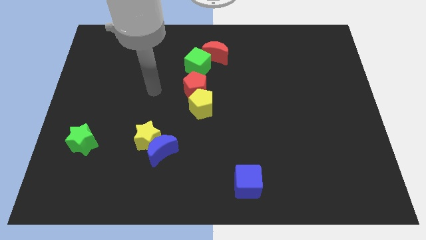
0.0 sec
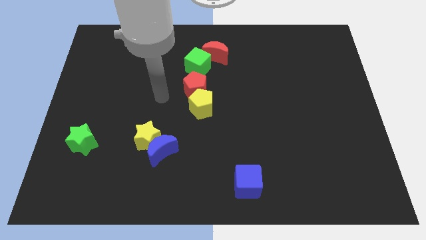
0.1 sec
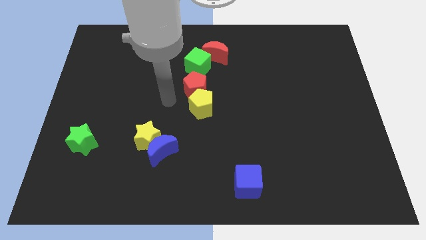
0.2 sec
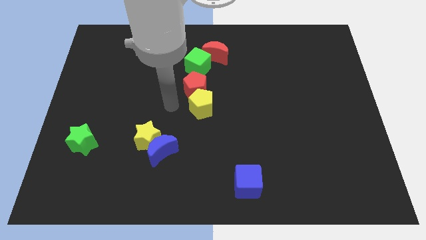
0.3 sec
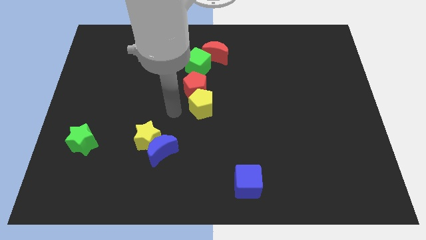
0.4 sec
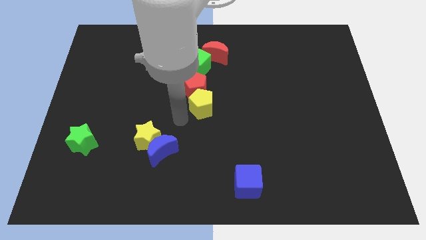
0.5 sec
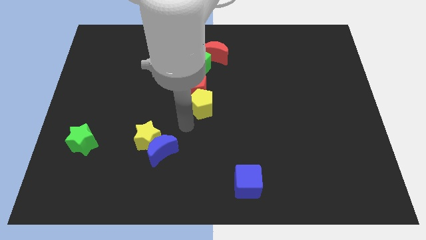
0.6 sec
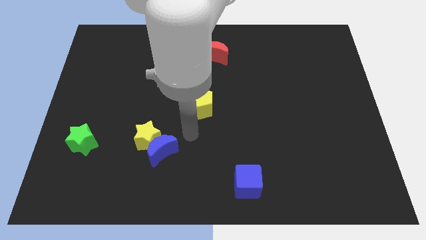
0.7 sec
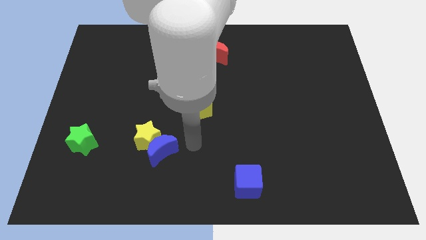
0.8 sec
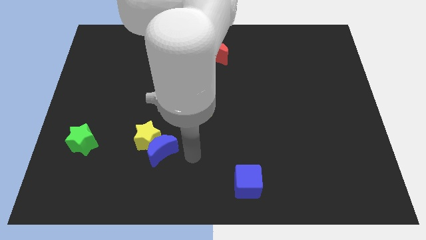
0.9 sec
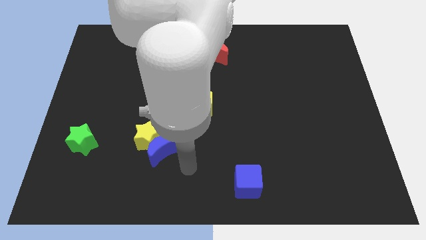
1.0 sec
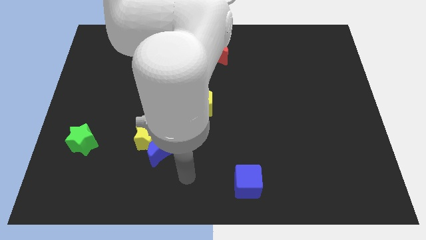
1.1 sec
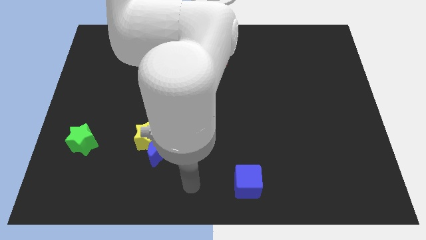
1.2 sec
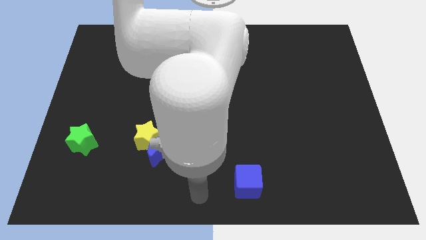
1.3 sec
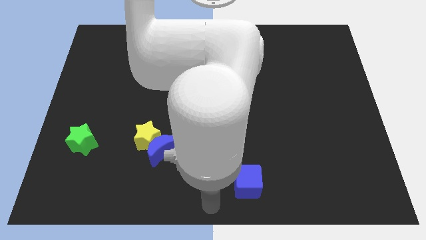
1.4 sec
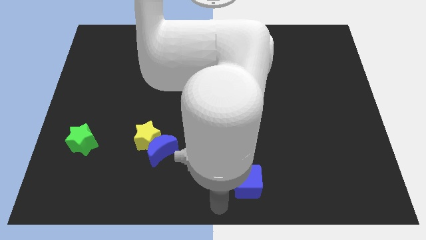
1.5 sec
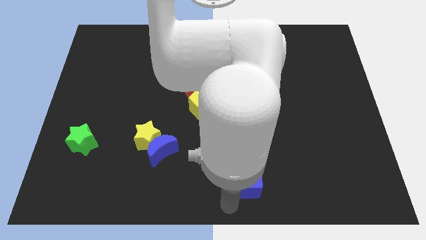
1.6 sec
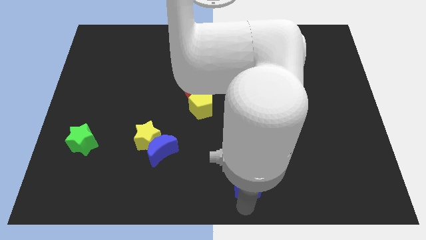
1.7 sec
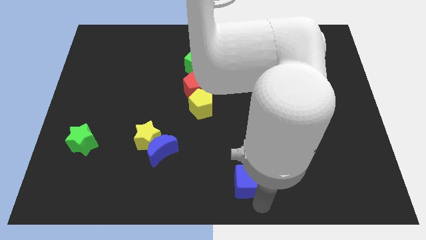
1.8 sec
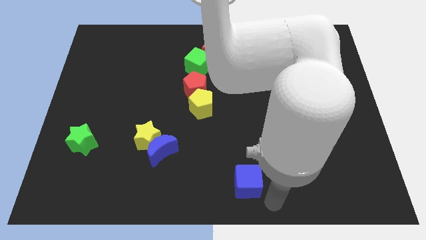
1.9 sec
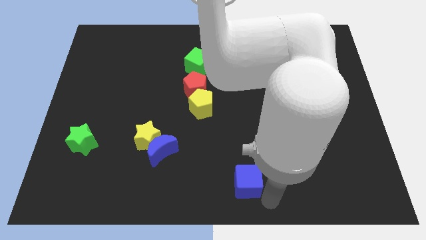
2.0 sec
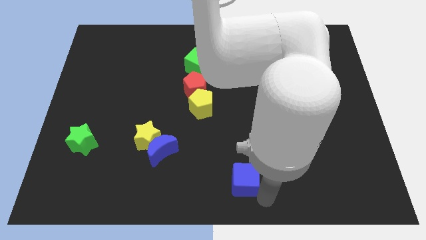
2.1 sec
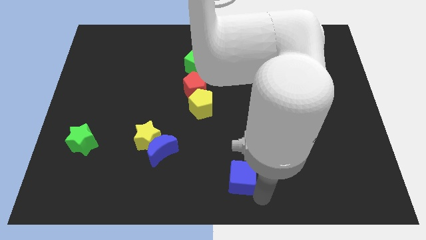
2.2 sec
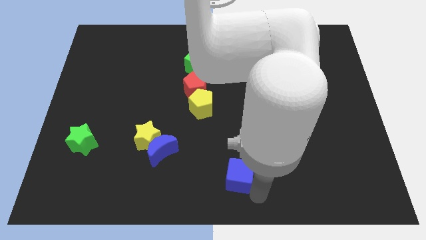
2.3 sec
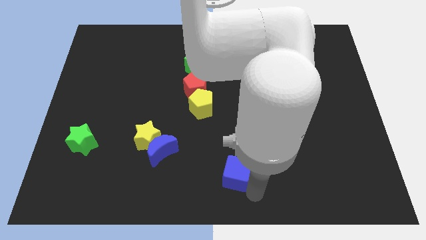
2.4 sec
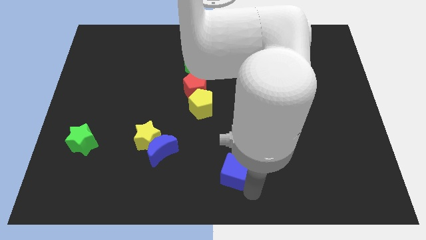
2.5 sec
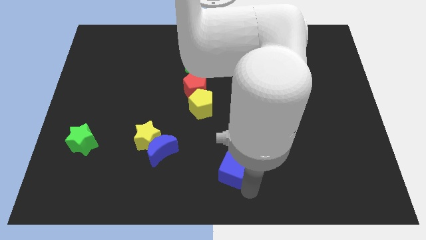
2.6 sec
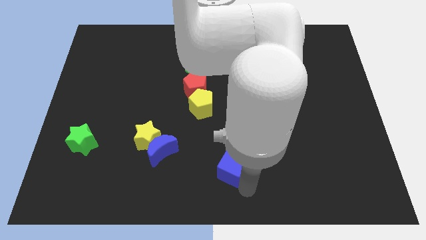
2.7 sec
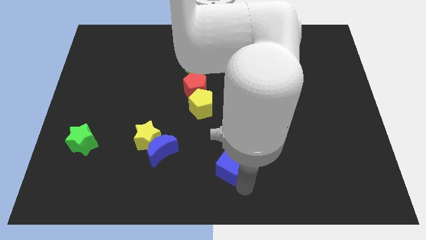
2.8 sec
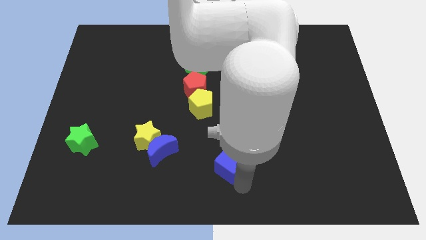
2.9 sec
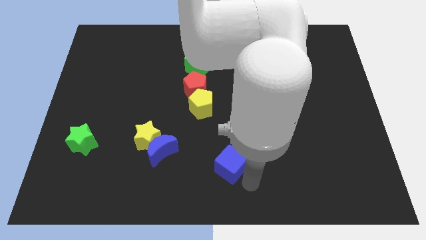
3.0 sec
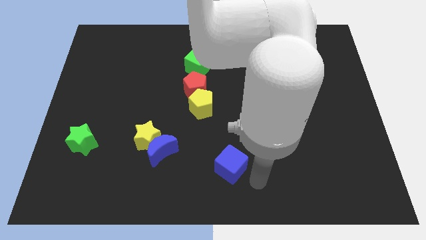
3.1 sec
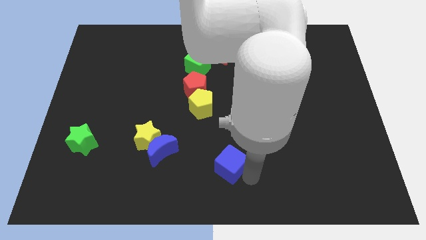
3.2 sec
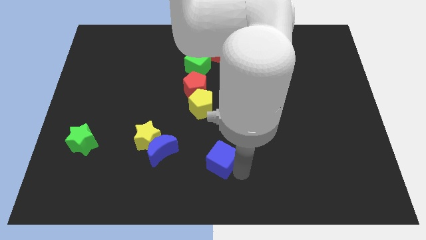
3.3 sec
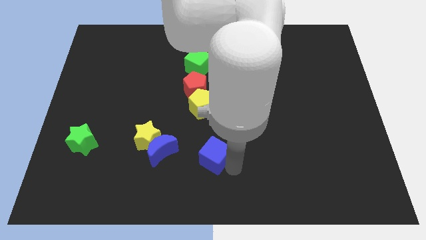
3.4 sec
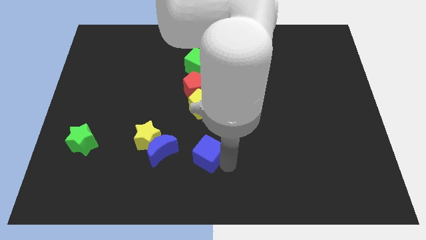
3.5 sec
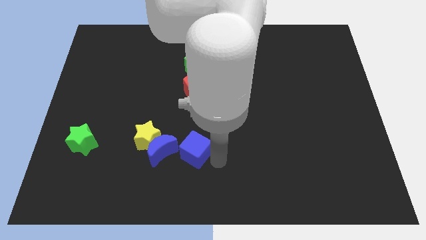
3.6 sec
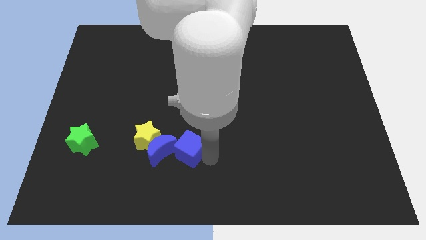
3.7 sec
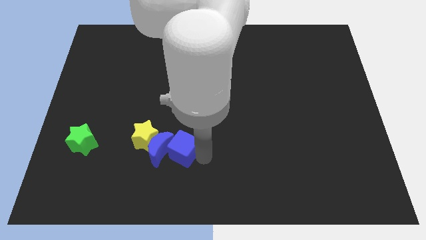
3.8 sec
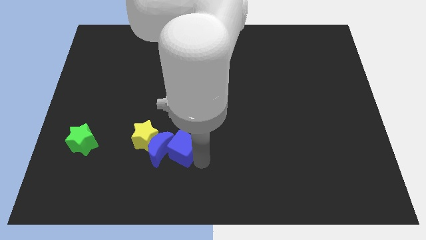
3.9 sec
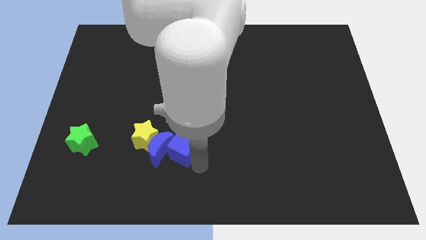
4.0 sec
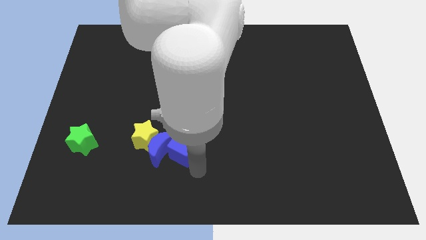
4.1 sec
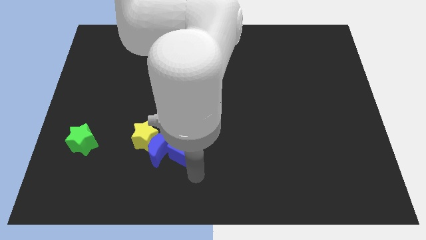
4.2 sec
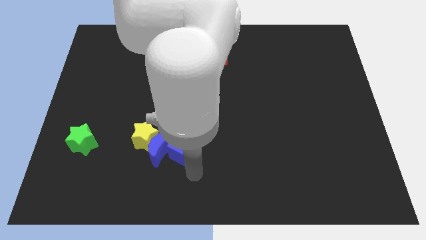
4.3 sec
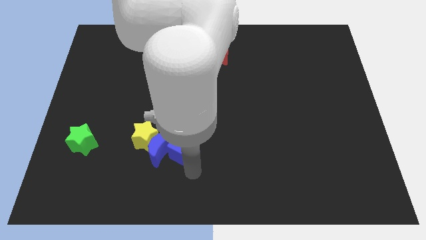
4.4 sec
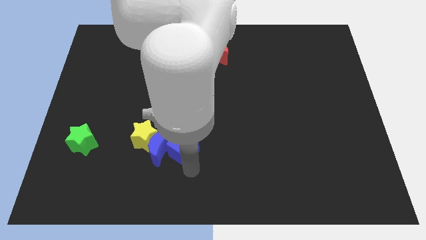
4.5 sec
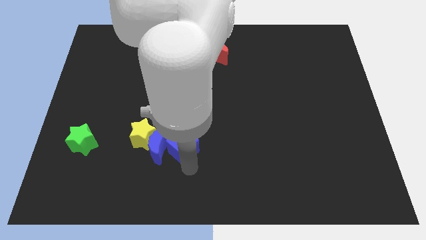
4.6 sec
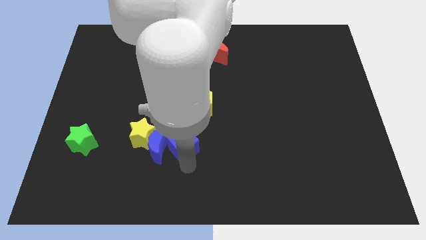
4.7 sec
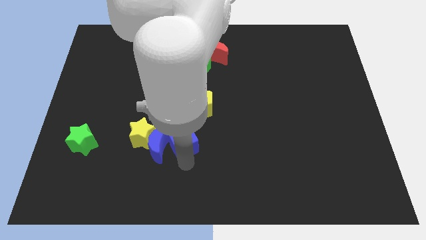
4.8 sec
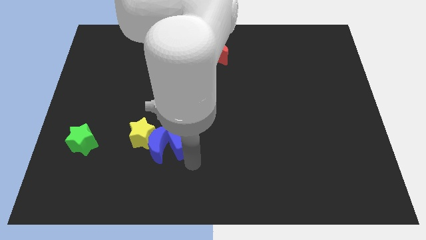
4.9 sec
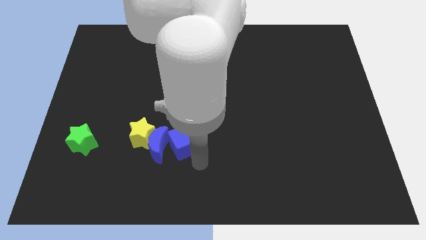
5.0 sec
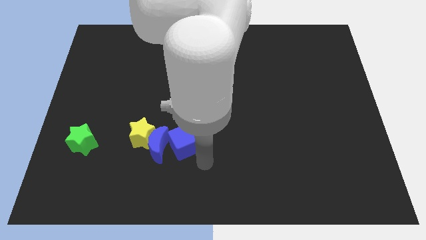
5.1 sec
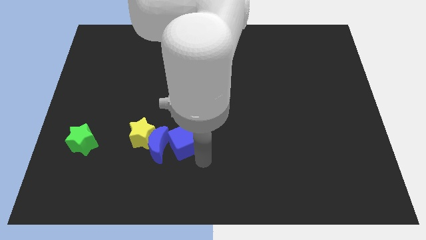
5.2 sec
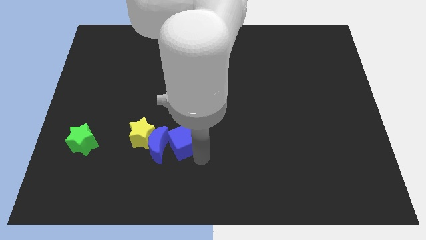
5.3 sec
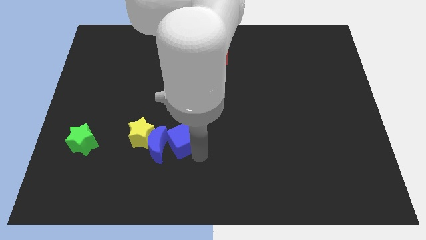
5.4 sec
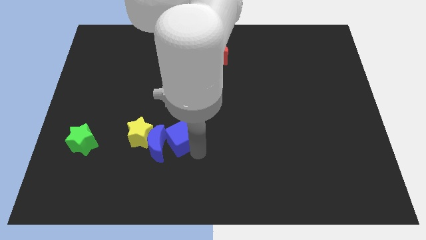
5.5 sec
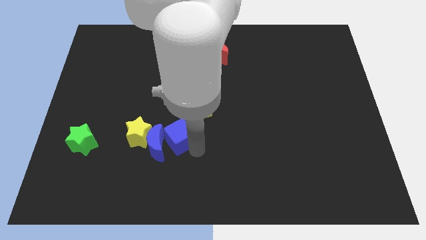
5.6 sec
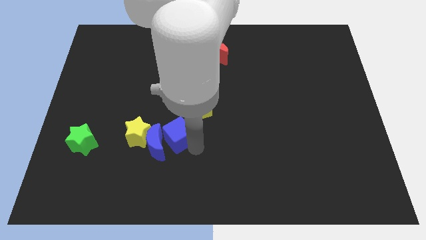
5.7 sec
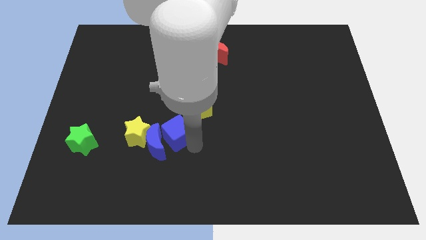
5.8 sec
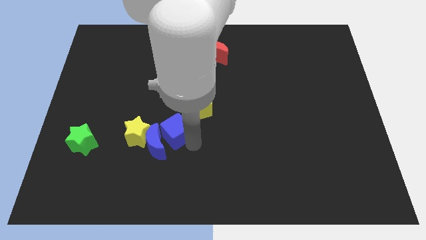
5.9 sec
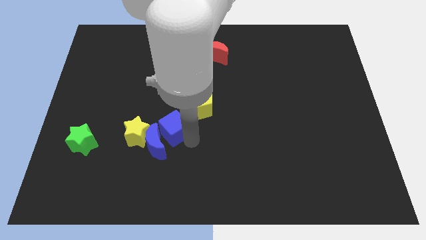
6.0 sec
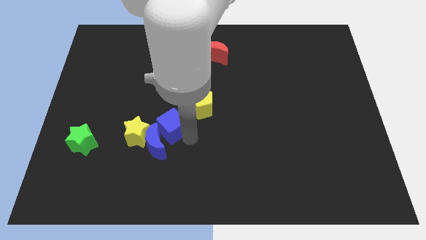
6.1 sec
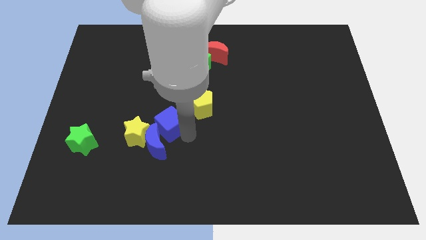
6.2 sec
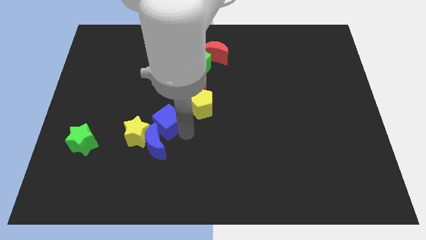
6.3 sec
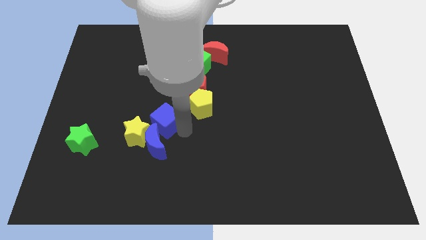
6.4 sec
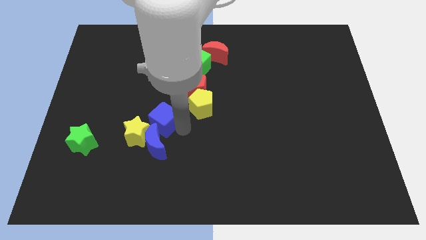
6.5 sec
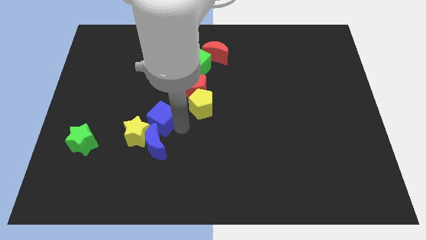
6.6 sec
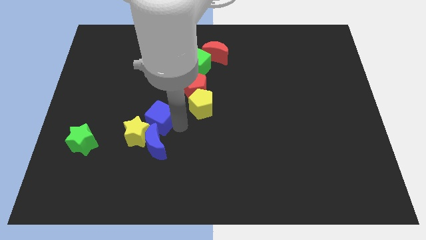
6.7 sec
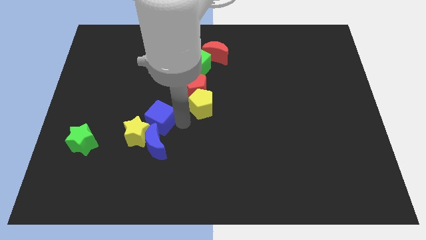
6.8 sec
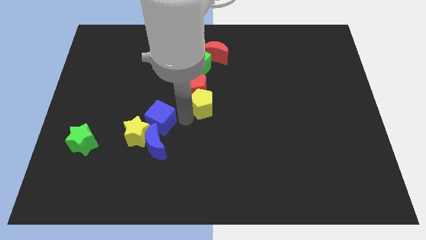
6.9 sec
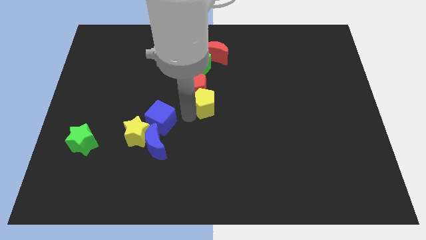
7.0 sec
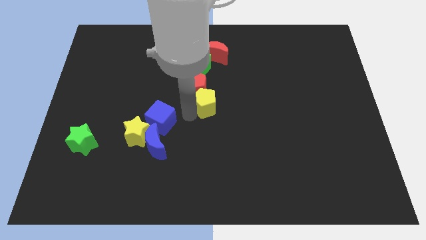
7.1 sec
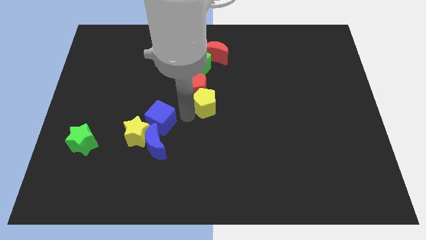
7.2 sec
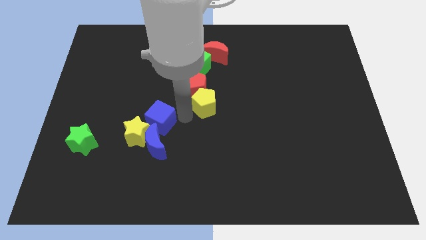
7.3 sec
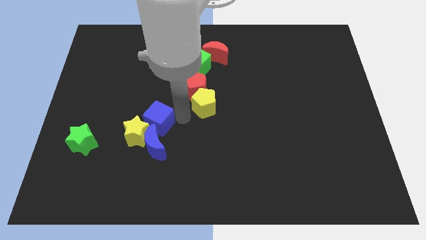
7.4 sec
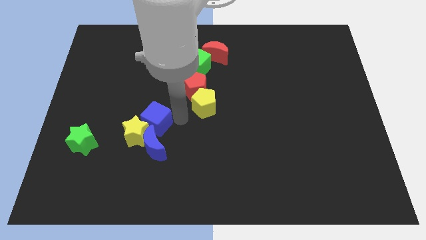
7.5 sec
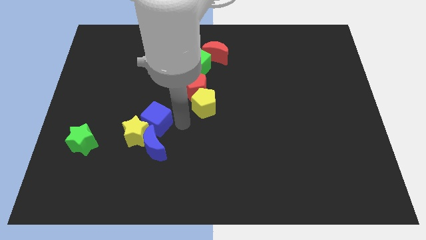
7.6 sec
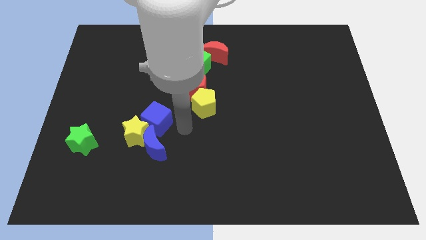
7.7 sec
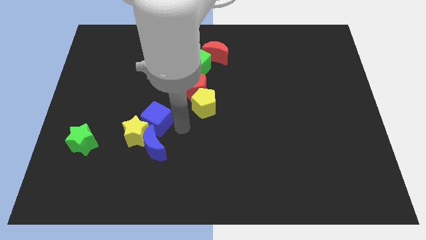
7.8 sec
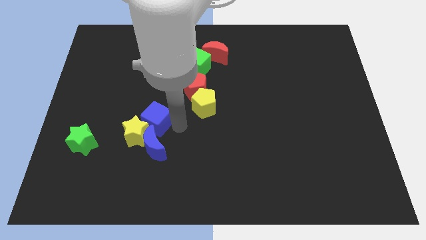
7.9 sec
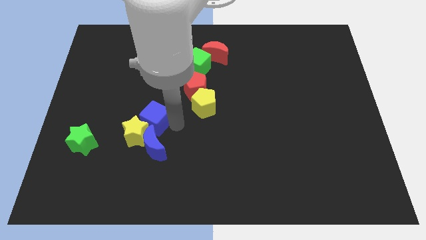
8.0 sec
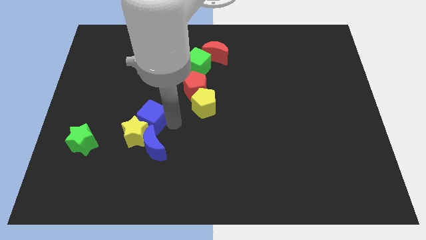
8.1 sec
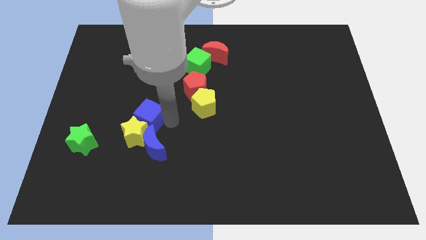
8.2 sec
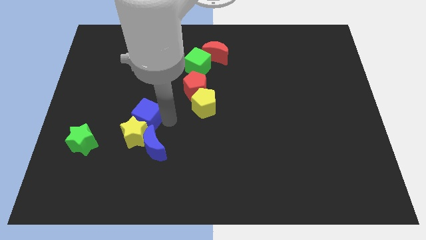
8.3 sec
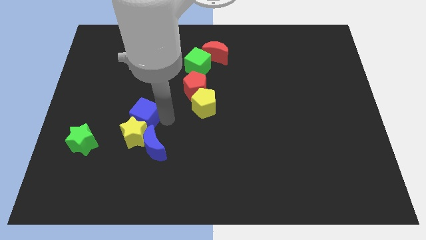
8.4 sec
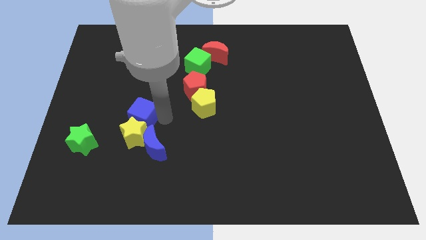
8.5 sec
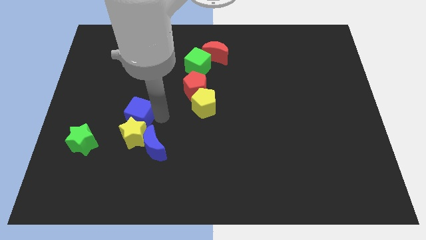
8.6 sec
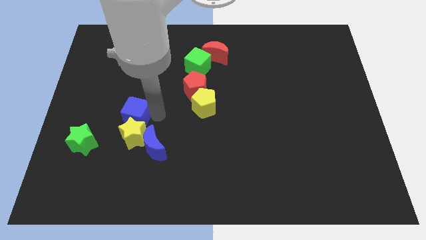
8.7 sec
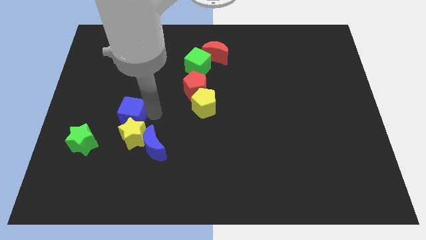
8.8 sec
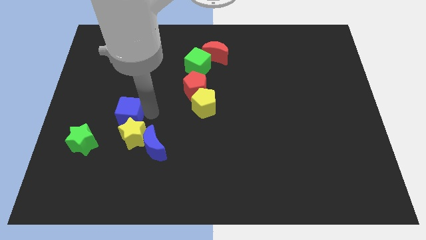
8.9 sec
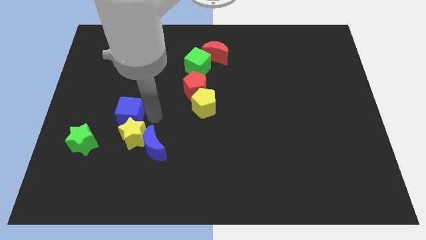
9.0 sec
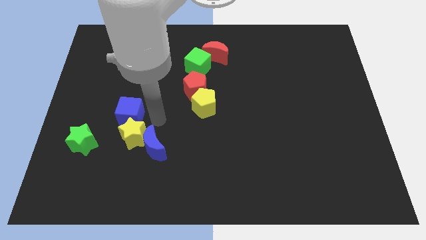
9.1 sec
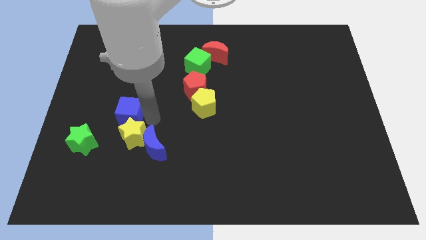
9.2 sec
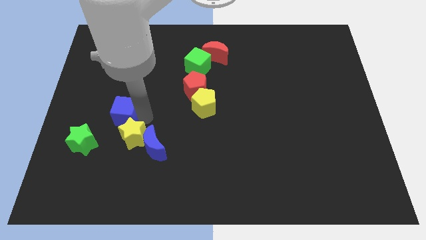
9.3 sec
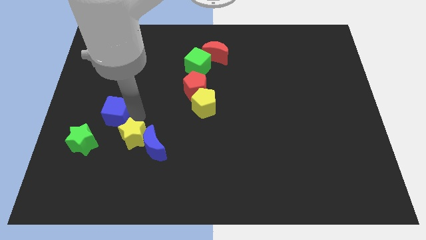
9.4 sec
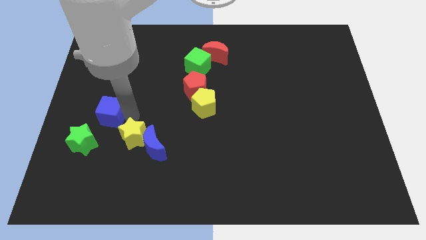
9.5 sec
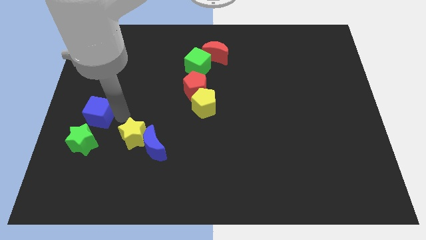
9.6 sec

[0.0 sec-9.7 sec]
push the blue cube to the left side
